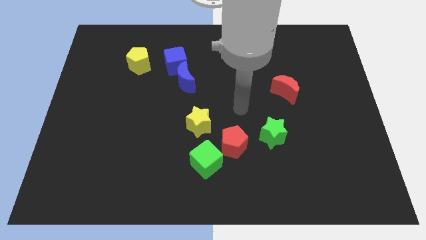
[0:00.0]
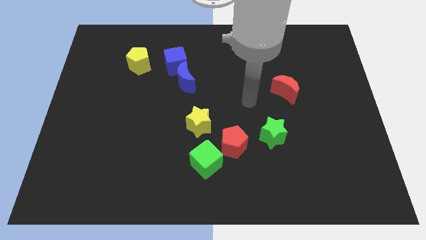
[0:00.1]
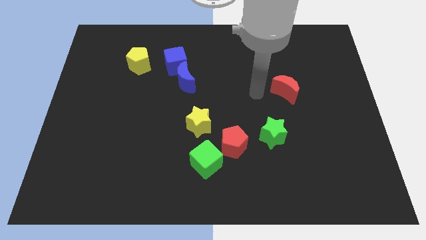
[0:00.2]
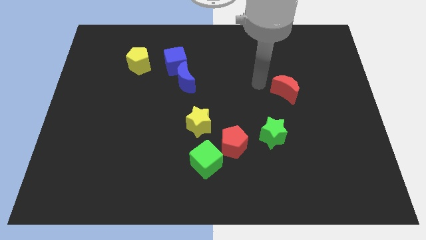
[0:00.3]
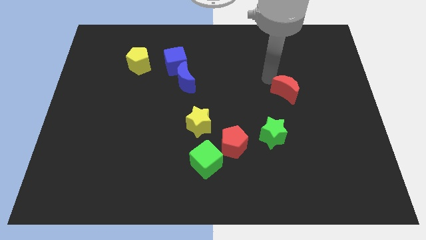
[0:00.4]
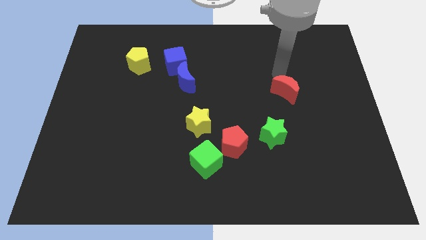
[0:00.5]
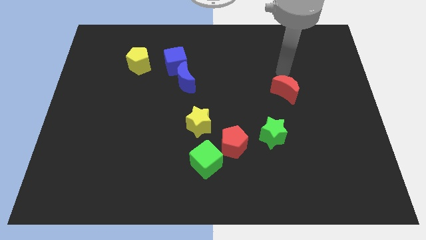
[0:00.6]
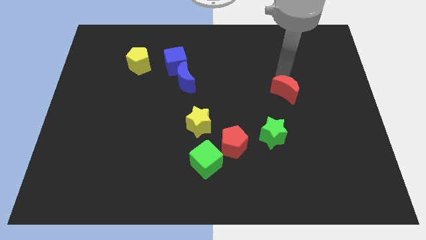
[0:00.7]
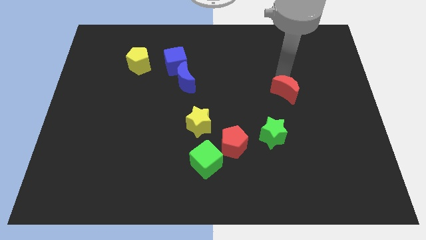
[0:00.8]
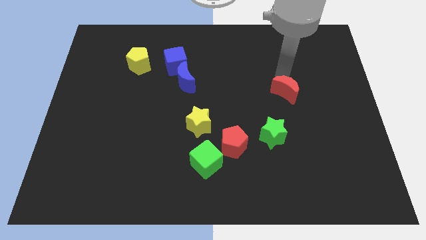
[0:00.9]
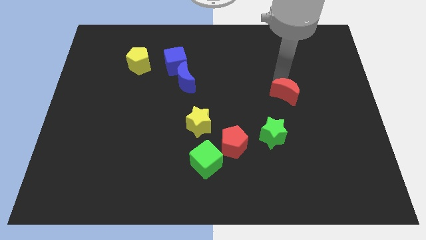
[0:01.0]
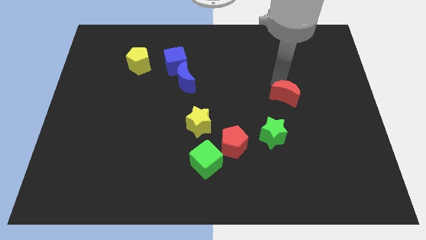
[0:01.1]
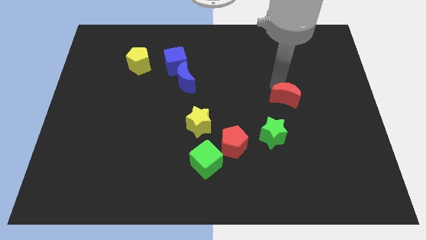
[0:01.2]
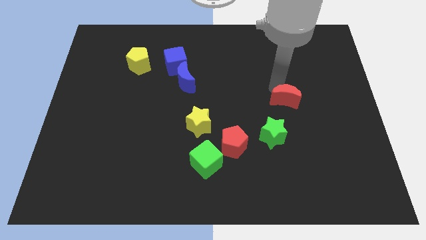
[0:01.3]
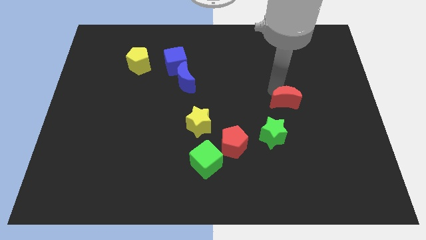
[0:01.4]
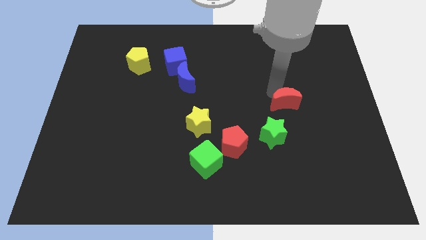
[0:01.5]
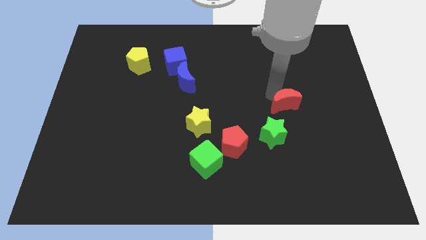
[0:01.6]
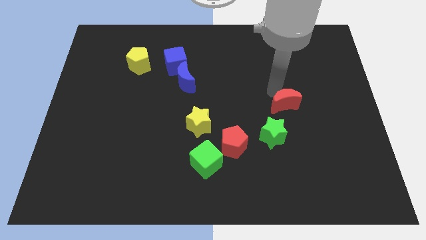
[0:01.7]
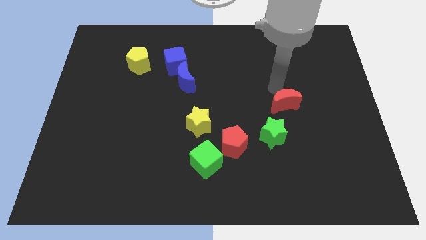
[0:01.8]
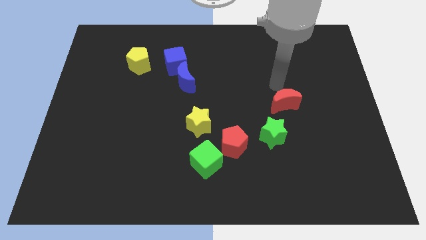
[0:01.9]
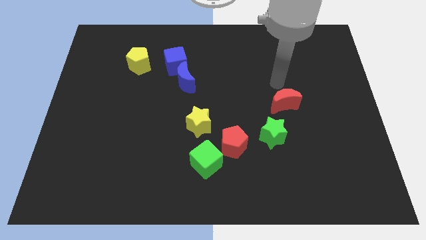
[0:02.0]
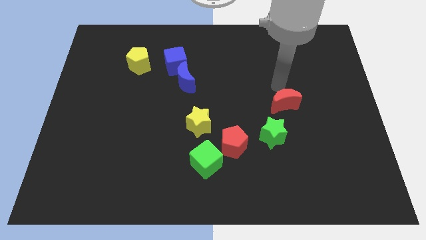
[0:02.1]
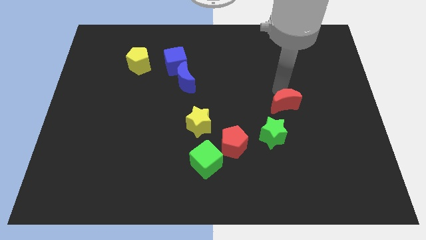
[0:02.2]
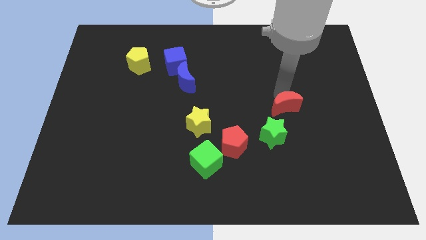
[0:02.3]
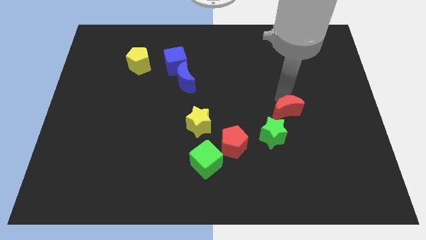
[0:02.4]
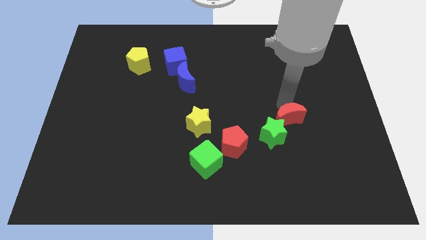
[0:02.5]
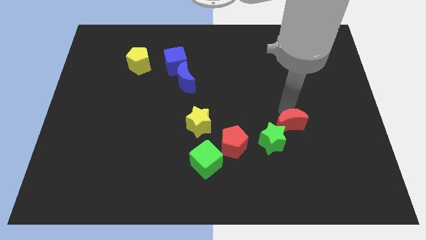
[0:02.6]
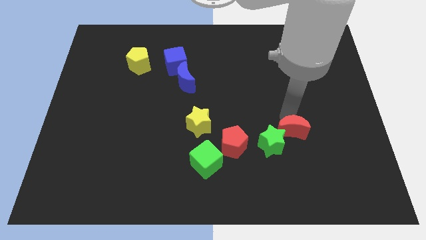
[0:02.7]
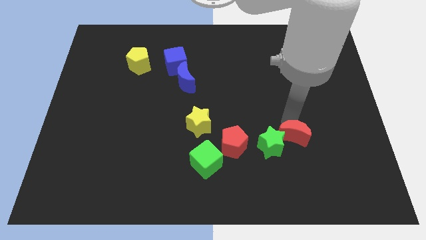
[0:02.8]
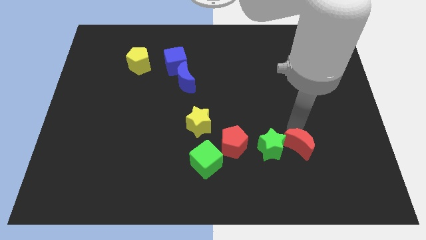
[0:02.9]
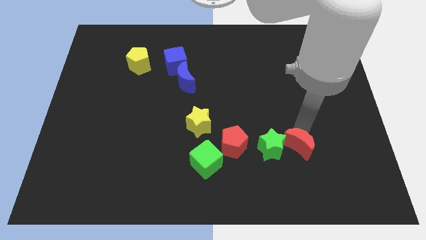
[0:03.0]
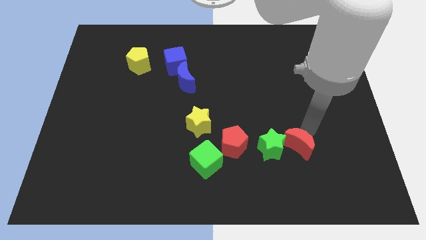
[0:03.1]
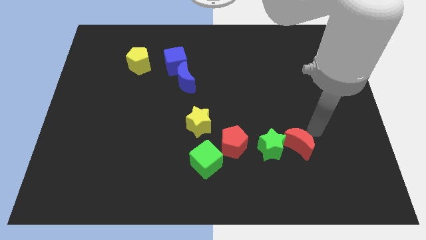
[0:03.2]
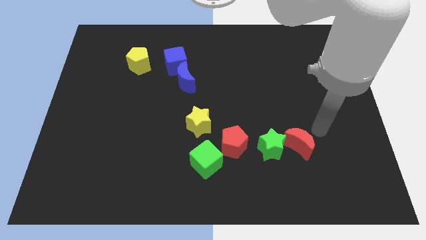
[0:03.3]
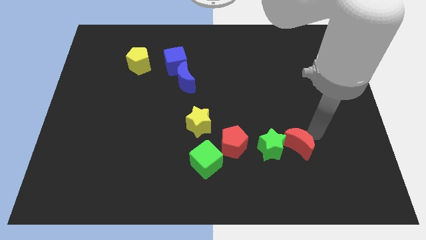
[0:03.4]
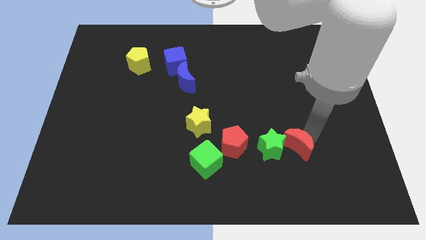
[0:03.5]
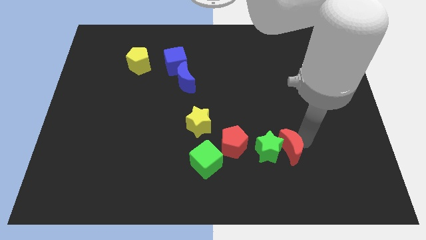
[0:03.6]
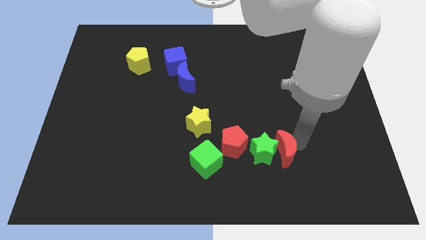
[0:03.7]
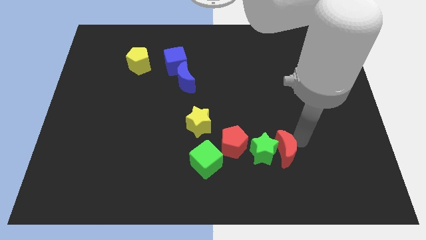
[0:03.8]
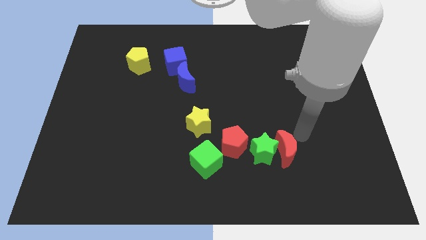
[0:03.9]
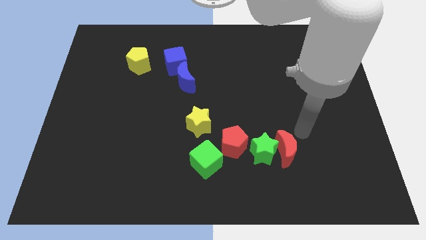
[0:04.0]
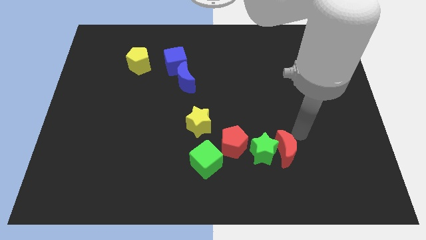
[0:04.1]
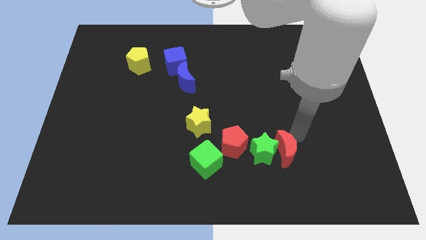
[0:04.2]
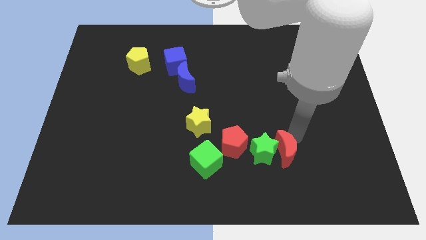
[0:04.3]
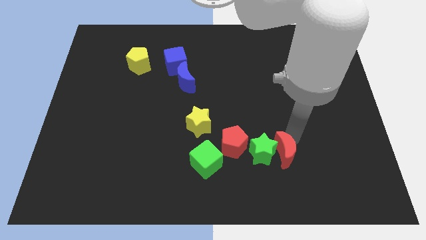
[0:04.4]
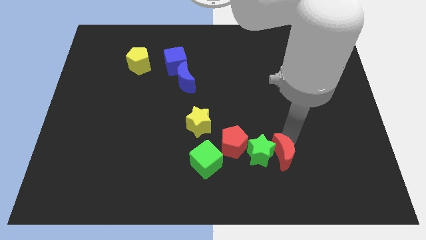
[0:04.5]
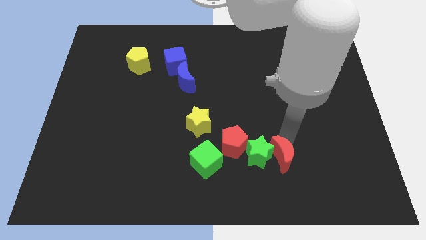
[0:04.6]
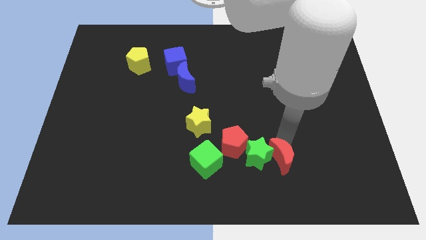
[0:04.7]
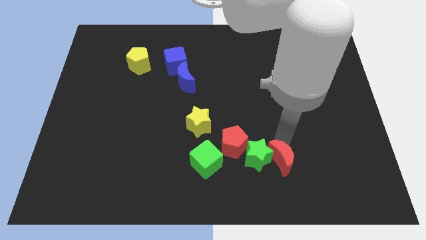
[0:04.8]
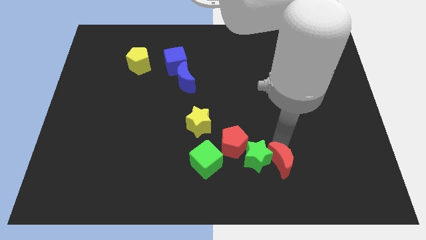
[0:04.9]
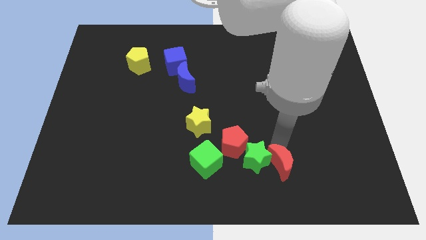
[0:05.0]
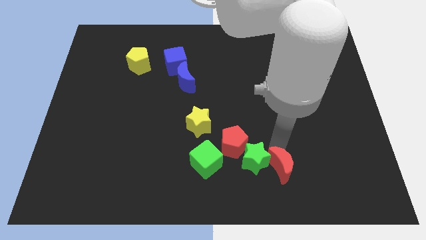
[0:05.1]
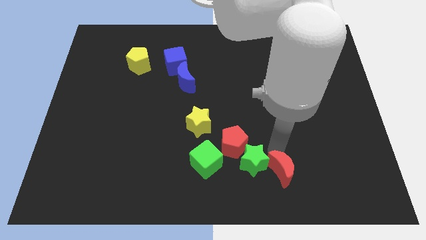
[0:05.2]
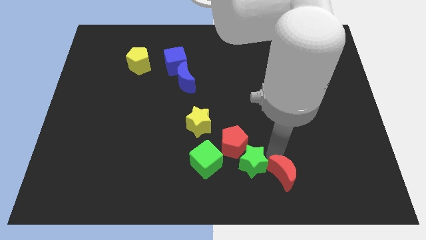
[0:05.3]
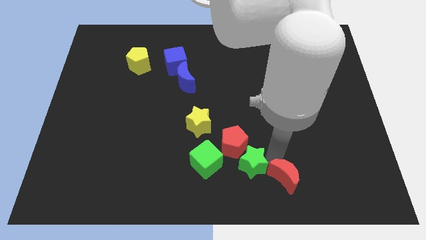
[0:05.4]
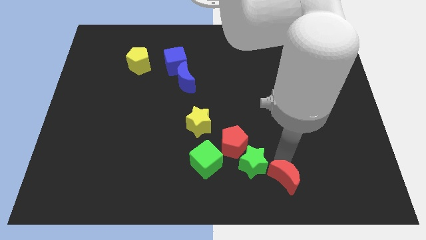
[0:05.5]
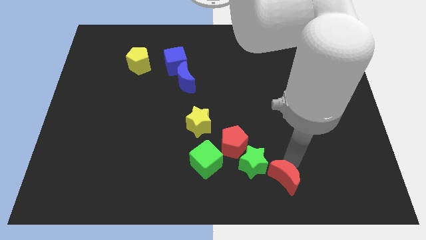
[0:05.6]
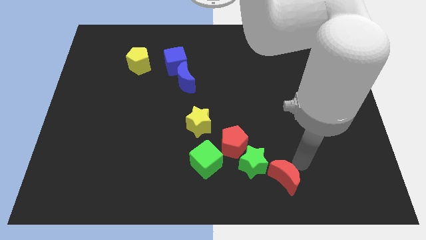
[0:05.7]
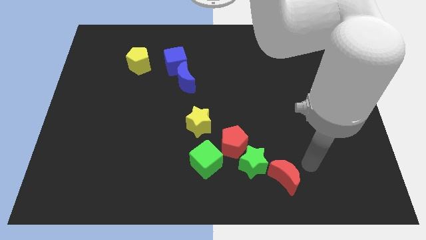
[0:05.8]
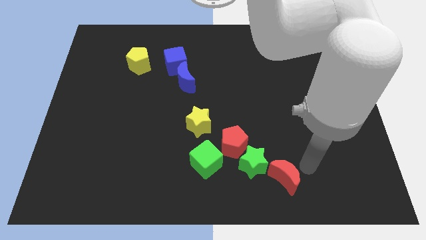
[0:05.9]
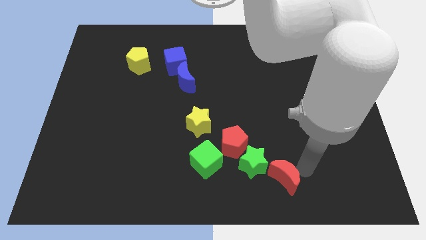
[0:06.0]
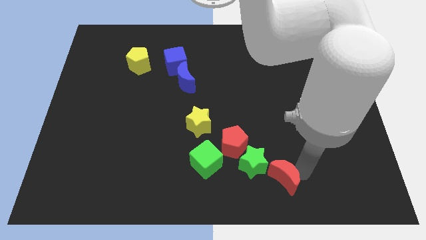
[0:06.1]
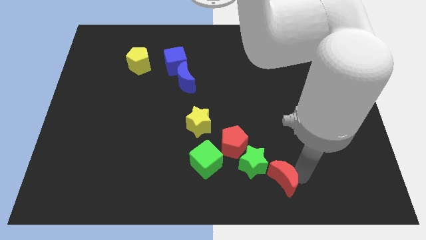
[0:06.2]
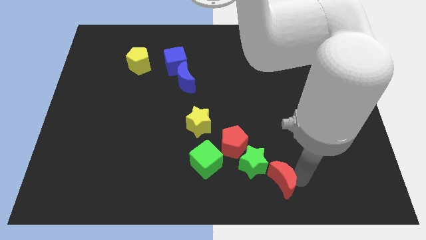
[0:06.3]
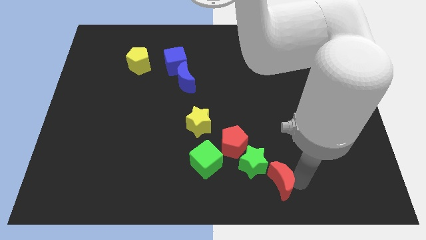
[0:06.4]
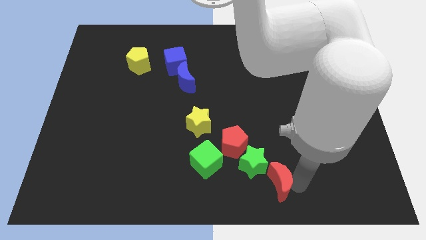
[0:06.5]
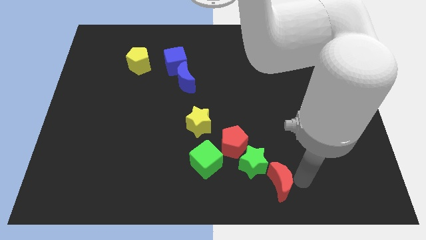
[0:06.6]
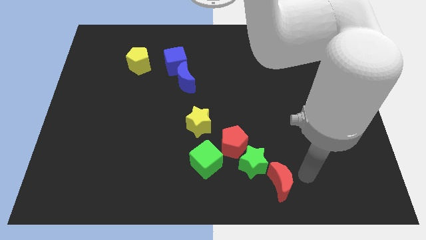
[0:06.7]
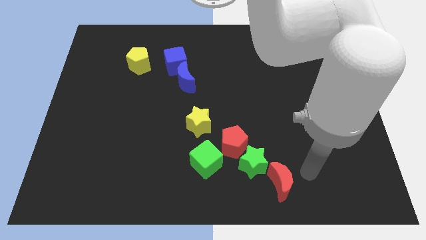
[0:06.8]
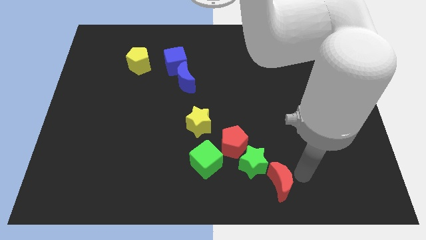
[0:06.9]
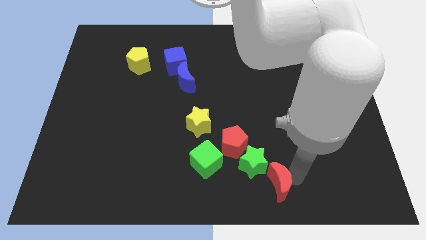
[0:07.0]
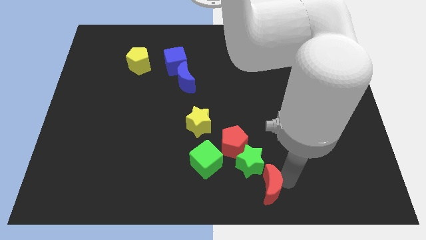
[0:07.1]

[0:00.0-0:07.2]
move the red moon to the bottom side

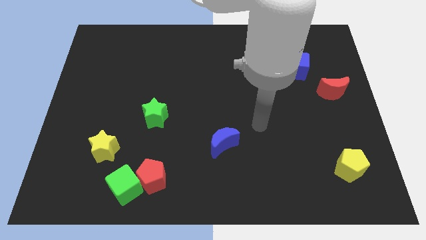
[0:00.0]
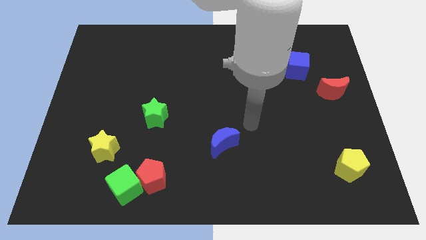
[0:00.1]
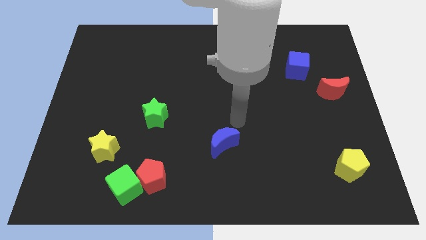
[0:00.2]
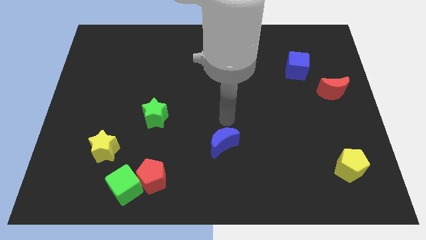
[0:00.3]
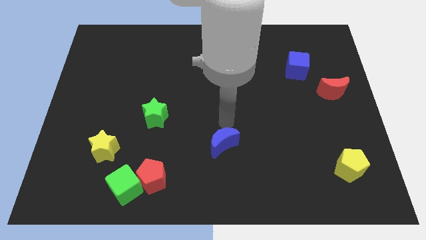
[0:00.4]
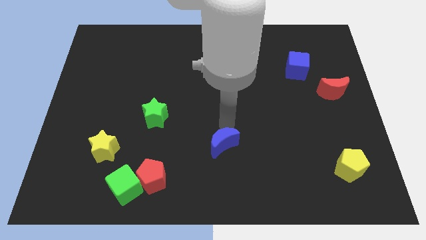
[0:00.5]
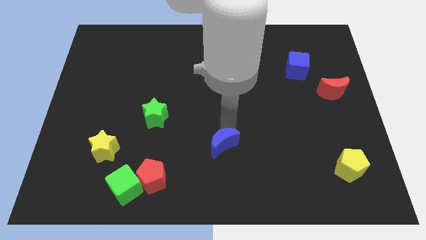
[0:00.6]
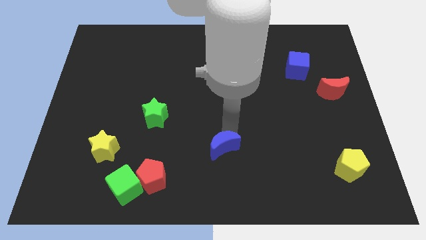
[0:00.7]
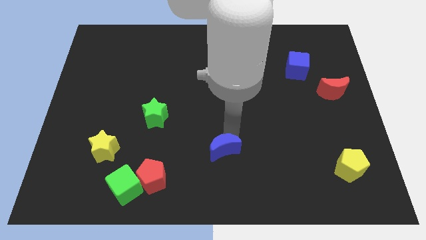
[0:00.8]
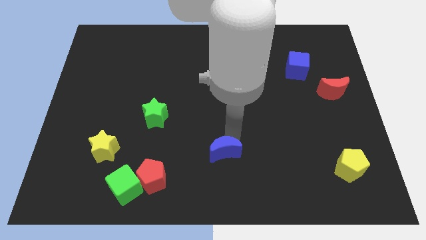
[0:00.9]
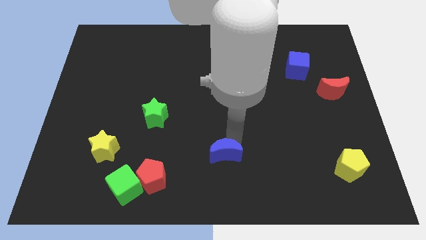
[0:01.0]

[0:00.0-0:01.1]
push the blue moon to the bottom side
